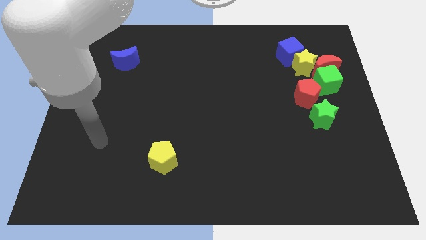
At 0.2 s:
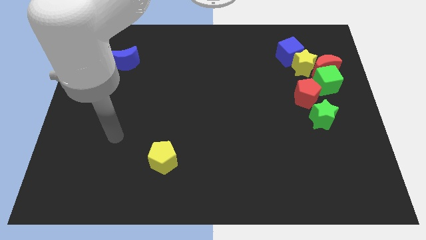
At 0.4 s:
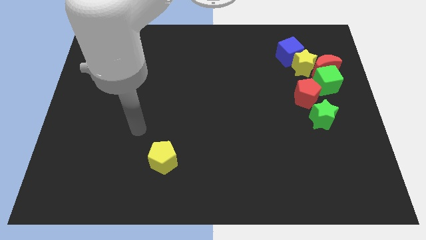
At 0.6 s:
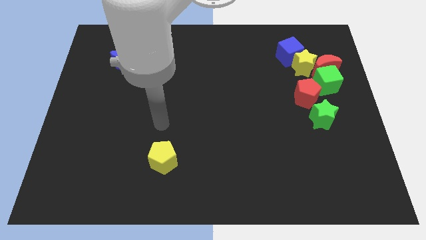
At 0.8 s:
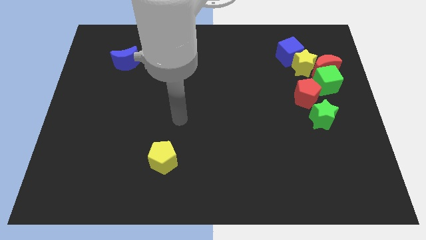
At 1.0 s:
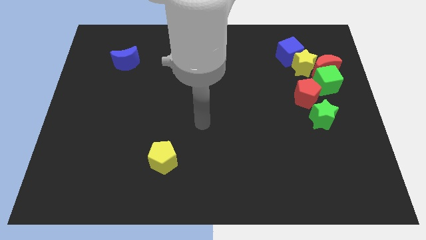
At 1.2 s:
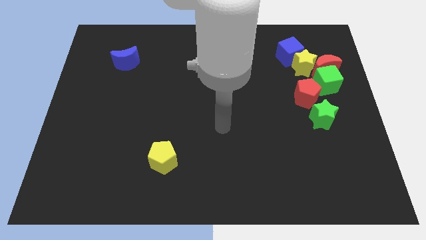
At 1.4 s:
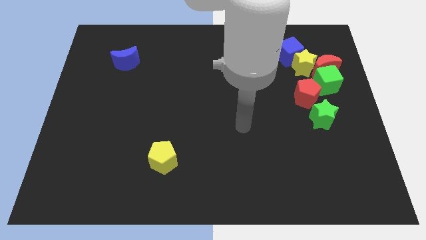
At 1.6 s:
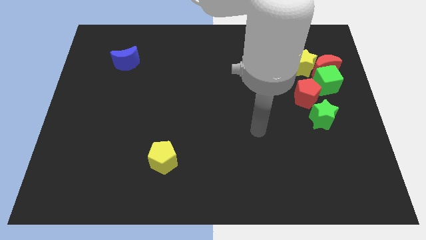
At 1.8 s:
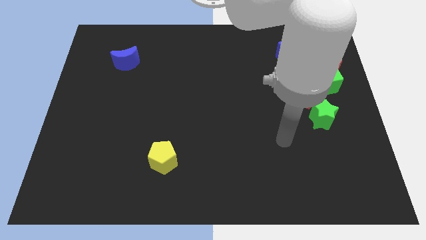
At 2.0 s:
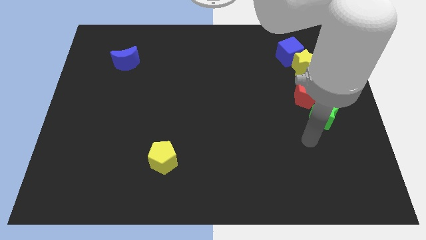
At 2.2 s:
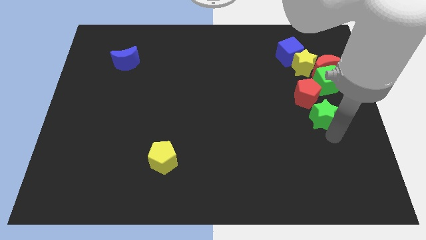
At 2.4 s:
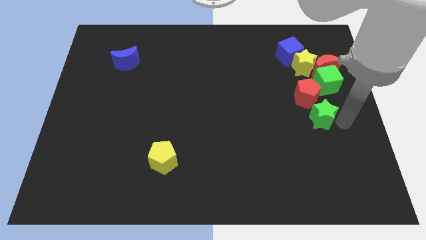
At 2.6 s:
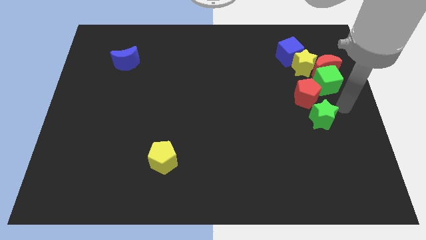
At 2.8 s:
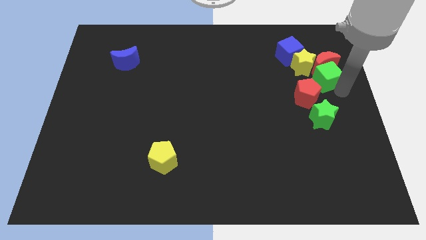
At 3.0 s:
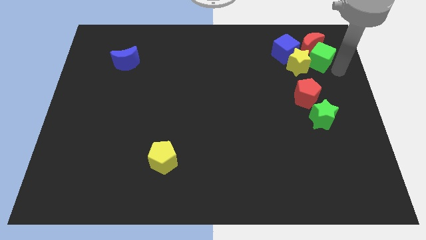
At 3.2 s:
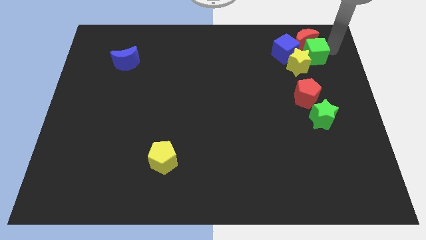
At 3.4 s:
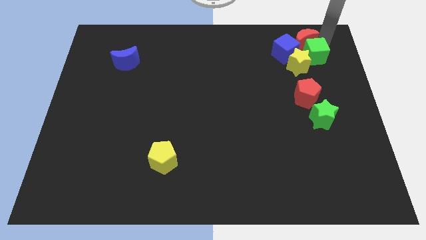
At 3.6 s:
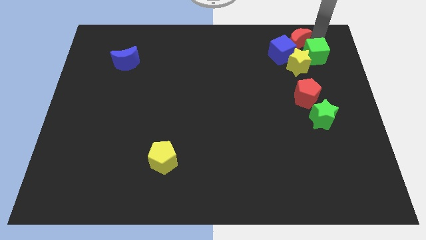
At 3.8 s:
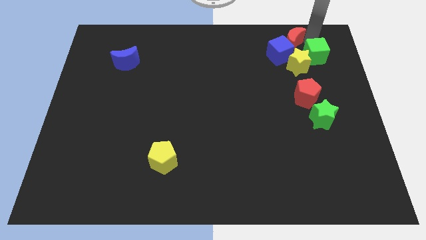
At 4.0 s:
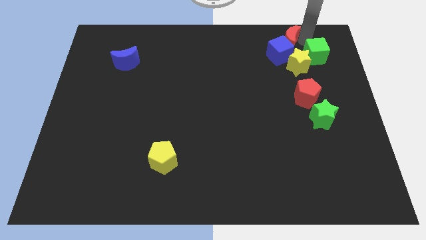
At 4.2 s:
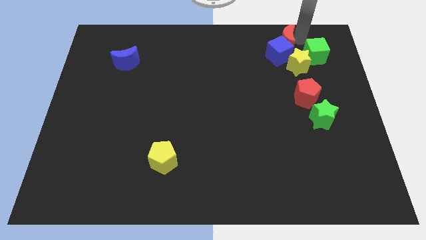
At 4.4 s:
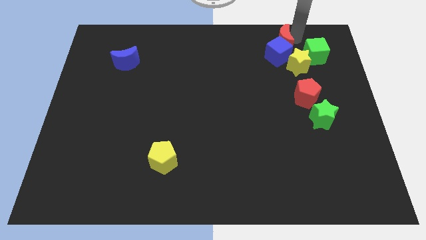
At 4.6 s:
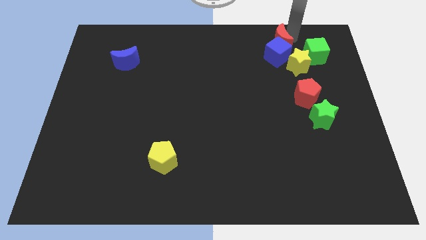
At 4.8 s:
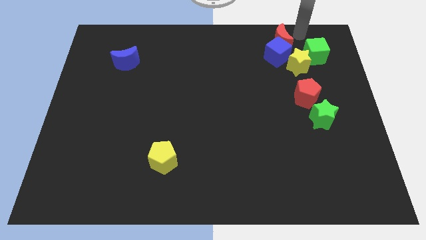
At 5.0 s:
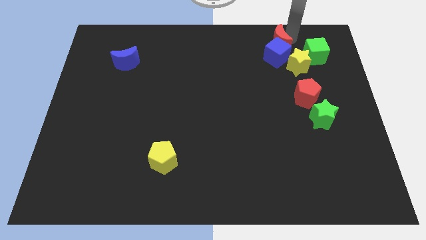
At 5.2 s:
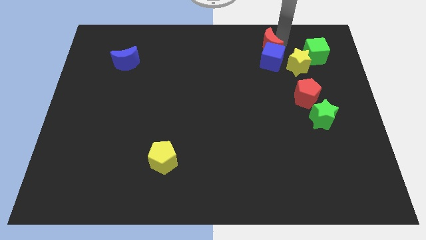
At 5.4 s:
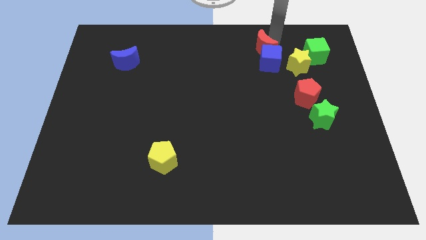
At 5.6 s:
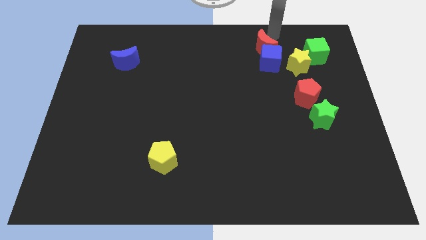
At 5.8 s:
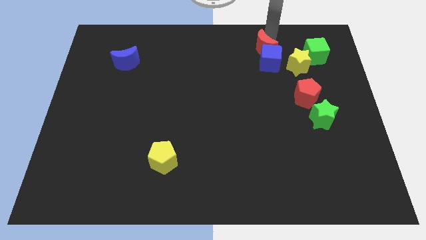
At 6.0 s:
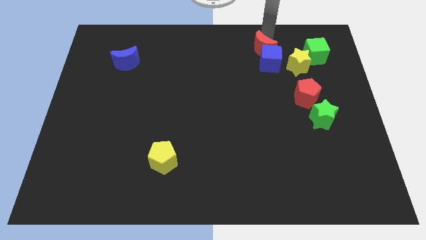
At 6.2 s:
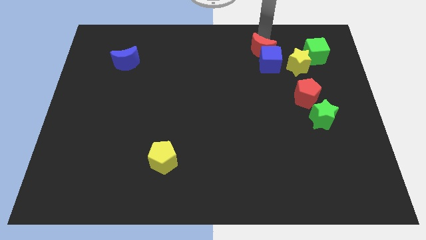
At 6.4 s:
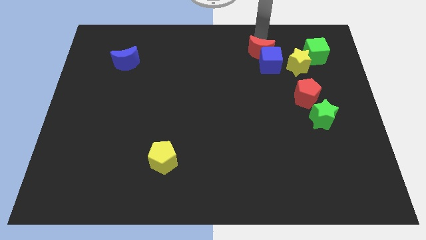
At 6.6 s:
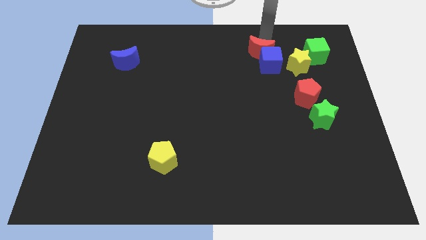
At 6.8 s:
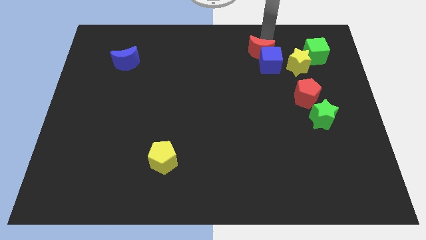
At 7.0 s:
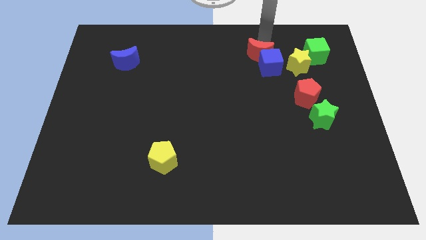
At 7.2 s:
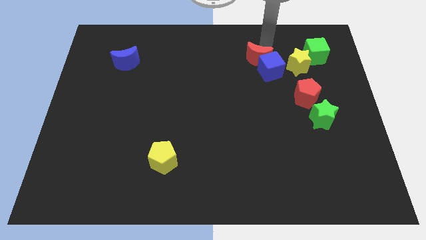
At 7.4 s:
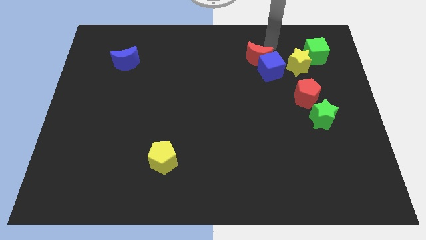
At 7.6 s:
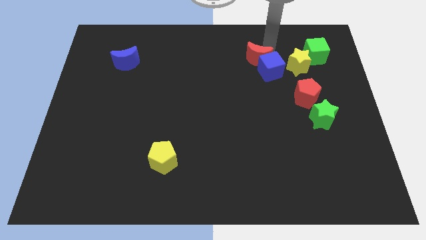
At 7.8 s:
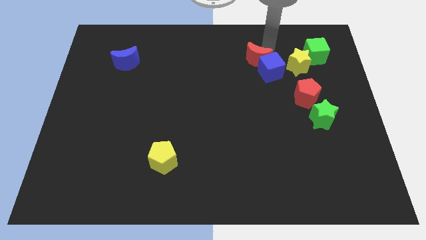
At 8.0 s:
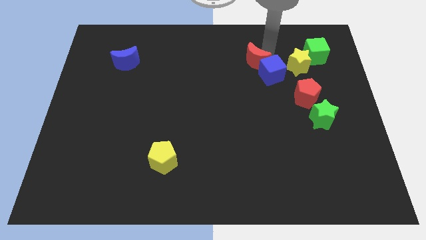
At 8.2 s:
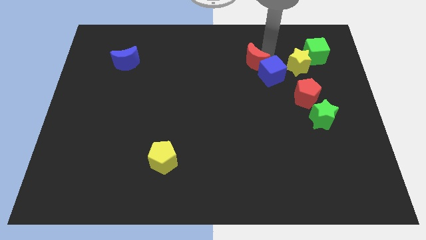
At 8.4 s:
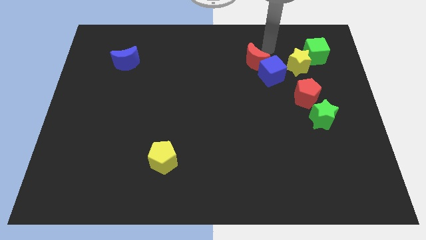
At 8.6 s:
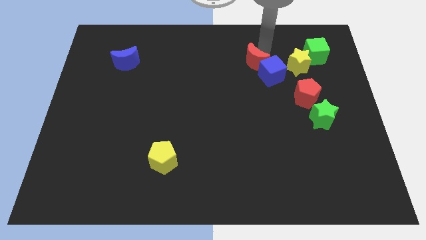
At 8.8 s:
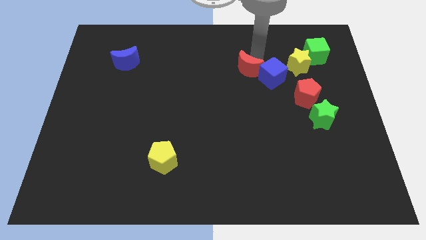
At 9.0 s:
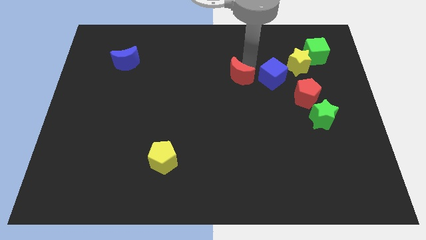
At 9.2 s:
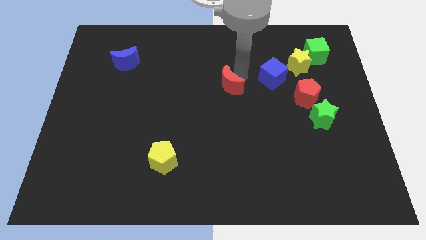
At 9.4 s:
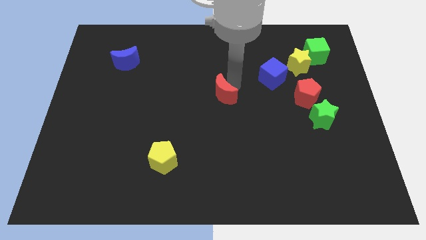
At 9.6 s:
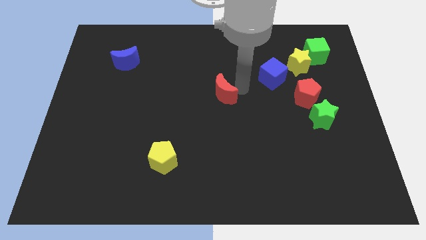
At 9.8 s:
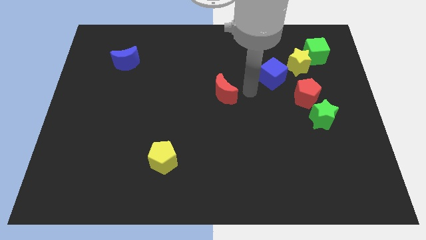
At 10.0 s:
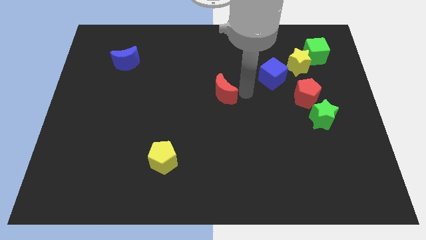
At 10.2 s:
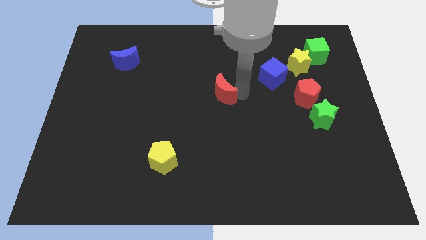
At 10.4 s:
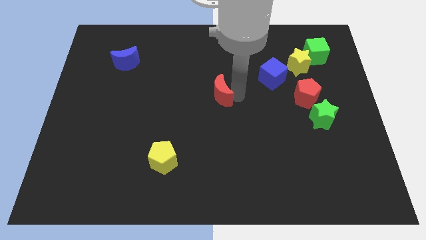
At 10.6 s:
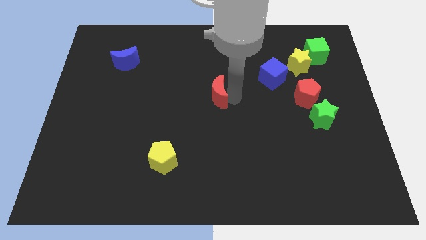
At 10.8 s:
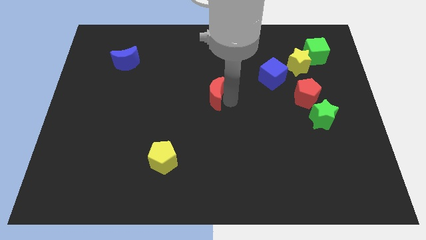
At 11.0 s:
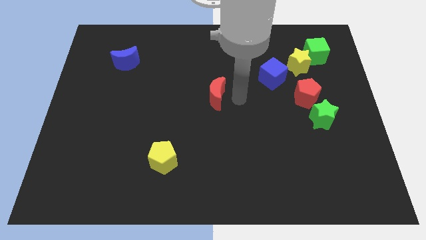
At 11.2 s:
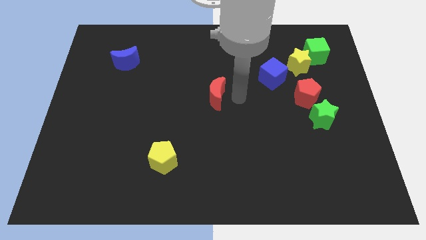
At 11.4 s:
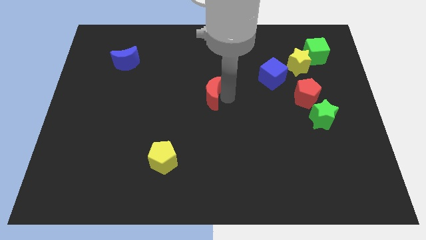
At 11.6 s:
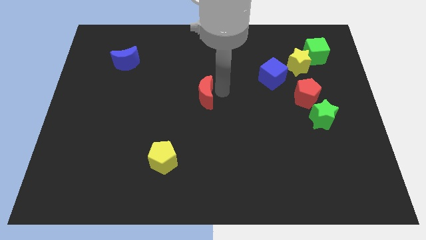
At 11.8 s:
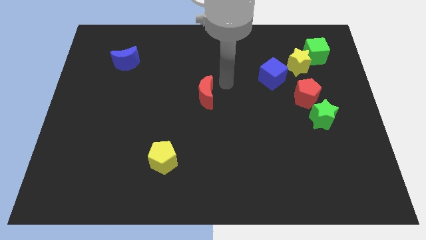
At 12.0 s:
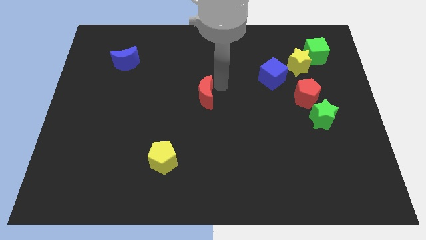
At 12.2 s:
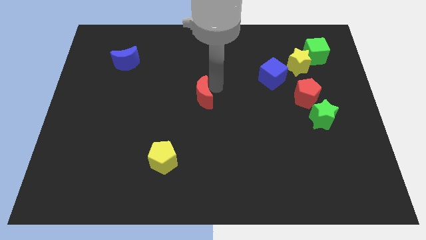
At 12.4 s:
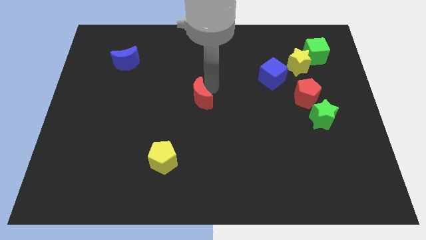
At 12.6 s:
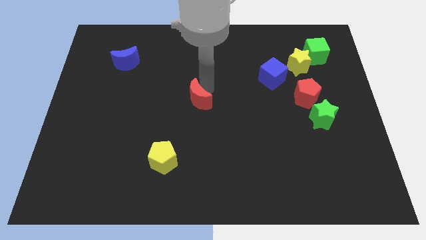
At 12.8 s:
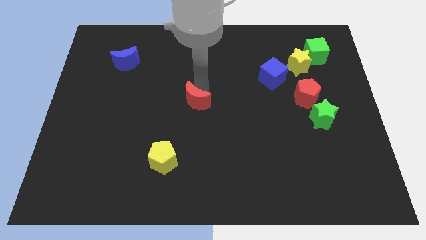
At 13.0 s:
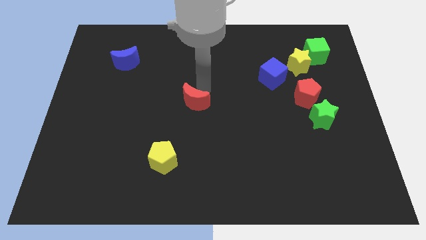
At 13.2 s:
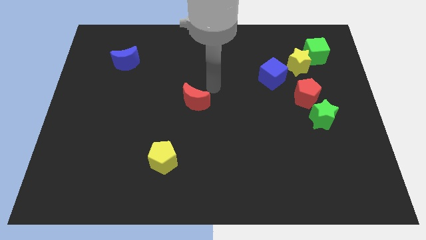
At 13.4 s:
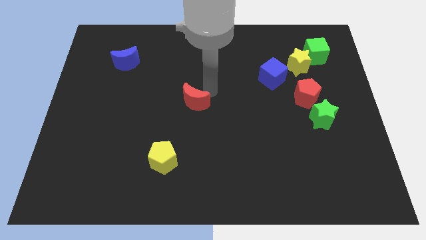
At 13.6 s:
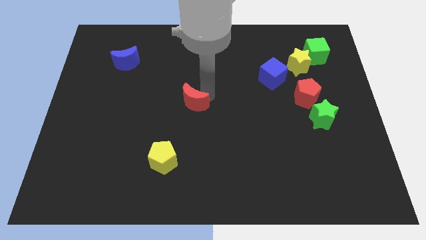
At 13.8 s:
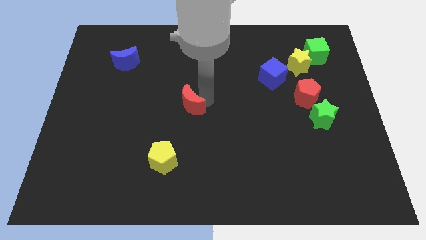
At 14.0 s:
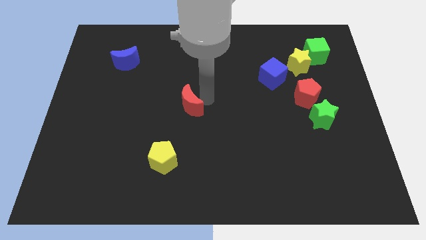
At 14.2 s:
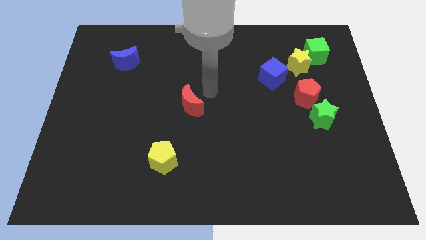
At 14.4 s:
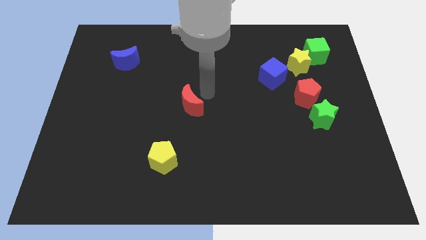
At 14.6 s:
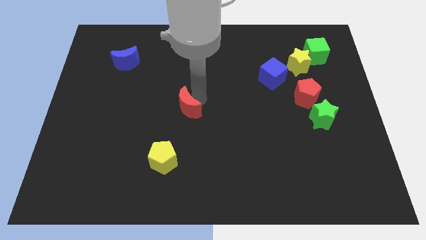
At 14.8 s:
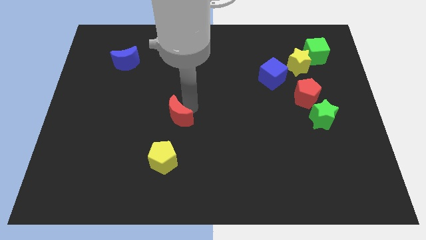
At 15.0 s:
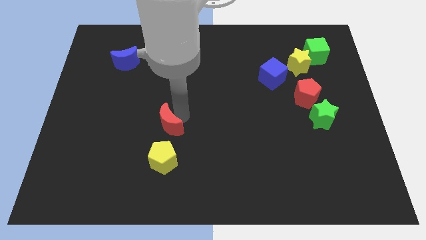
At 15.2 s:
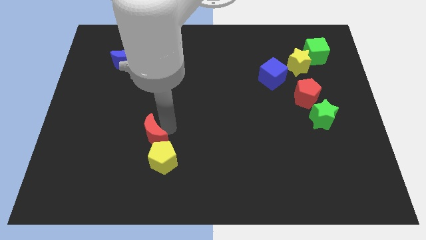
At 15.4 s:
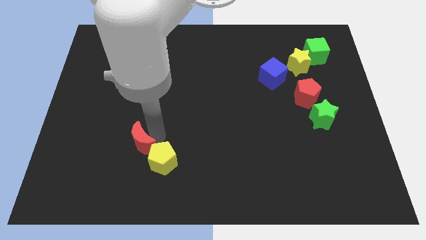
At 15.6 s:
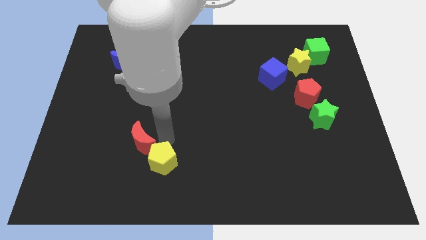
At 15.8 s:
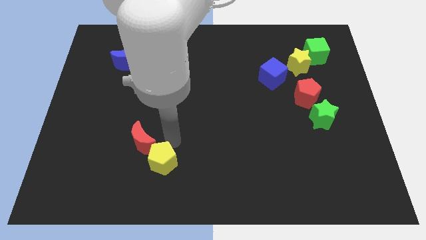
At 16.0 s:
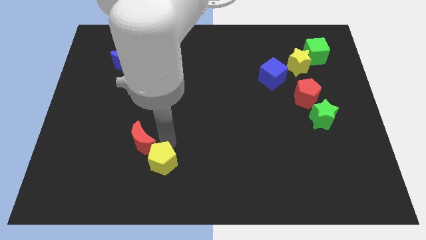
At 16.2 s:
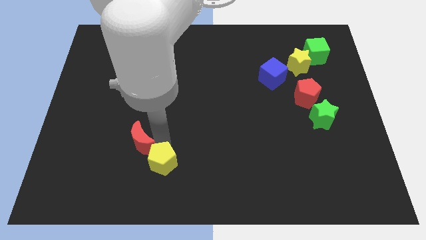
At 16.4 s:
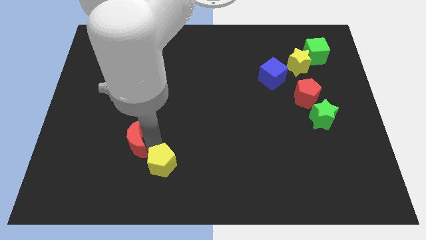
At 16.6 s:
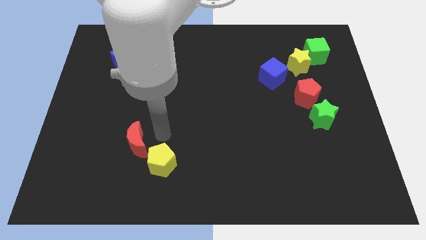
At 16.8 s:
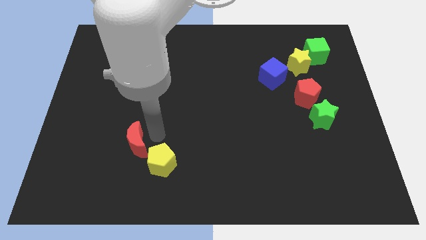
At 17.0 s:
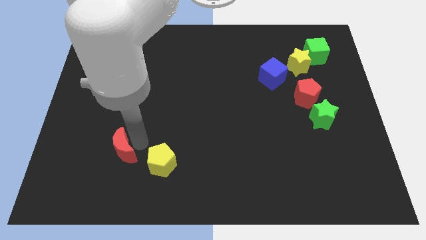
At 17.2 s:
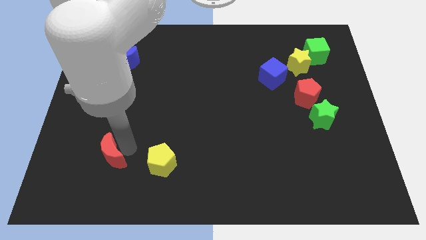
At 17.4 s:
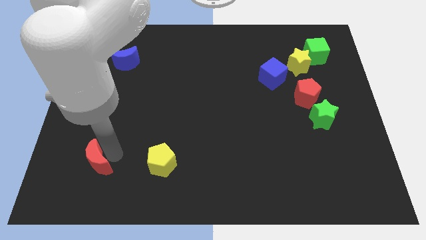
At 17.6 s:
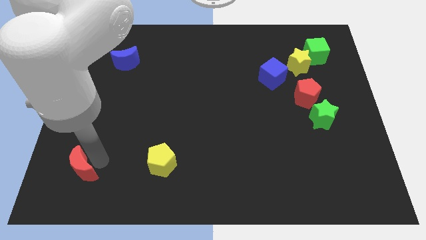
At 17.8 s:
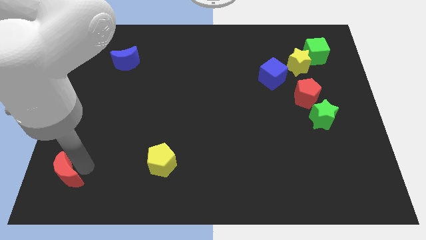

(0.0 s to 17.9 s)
slide the red moon to the lower left corner
